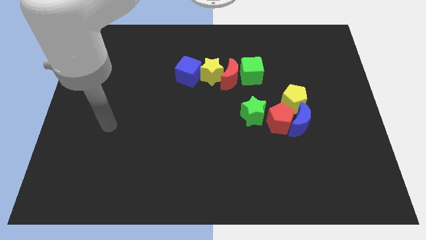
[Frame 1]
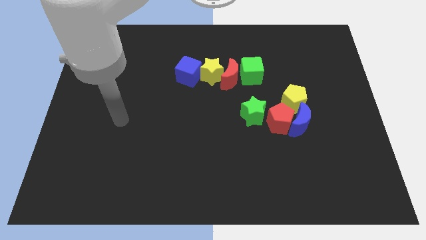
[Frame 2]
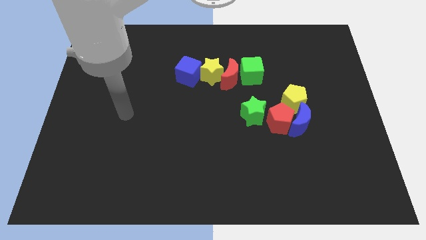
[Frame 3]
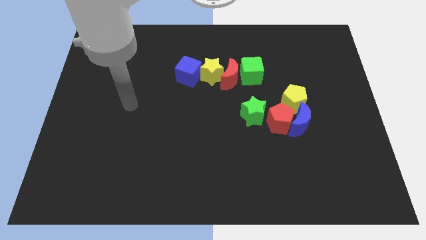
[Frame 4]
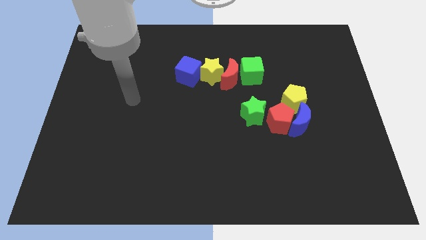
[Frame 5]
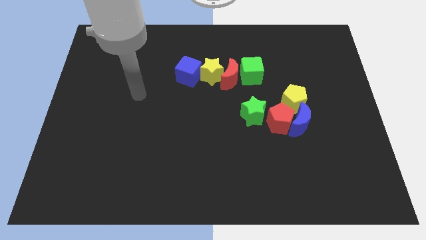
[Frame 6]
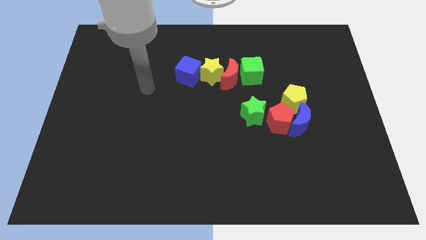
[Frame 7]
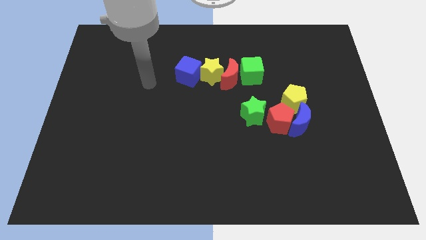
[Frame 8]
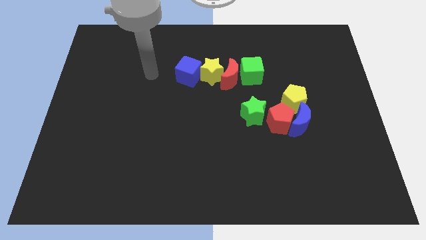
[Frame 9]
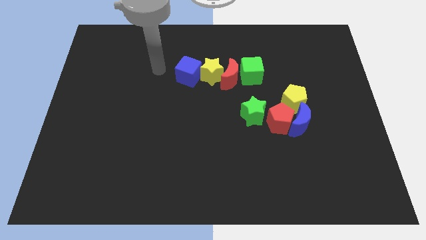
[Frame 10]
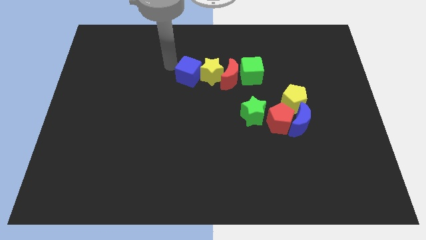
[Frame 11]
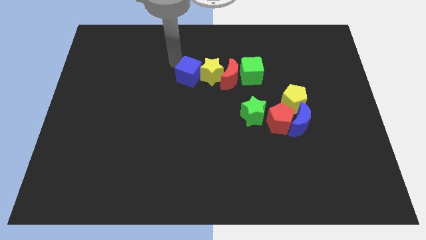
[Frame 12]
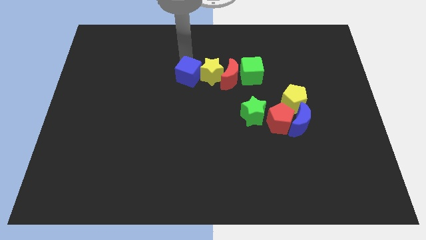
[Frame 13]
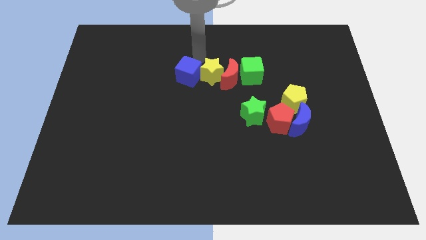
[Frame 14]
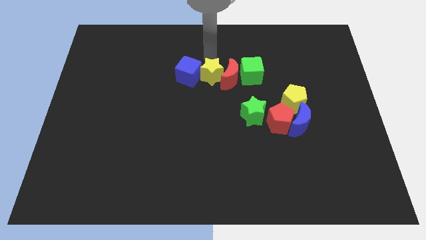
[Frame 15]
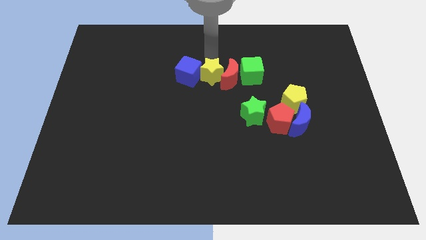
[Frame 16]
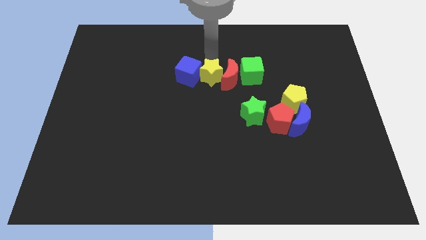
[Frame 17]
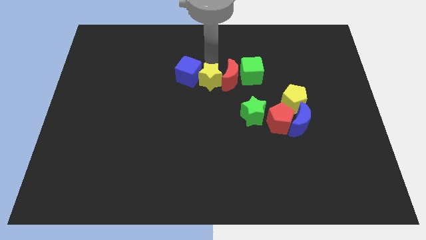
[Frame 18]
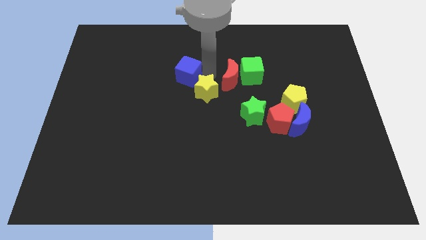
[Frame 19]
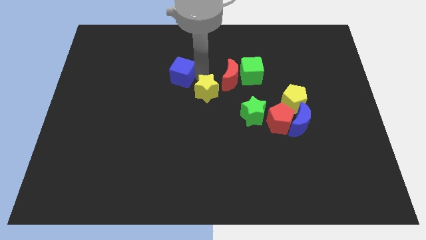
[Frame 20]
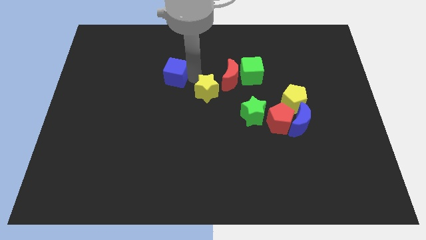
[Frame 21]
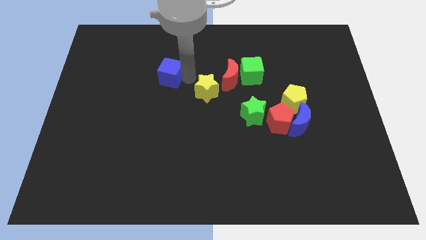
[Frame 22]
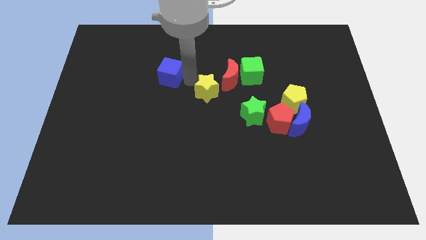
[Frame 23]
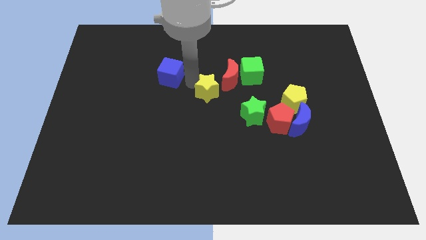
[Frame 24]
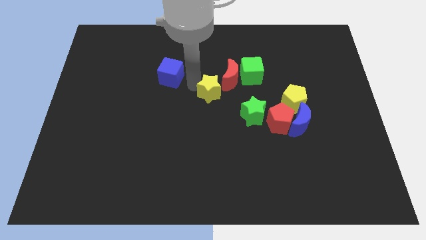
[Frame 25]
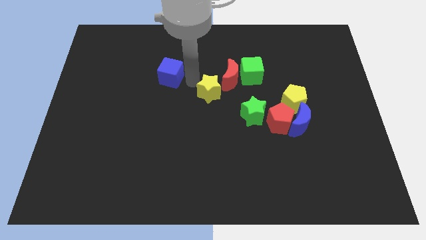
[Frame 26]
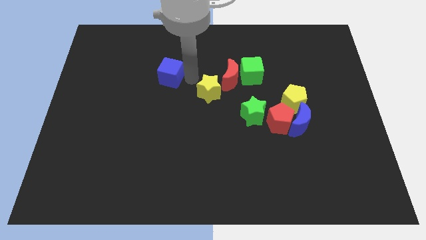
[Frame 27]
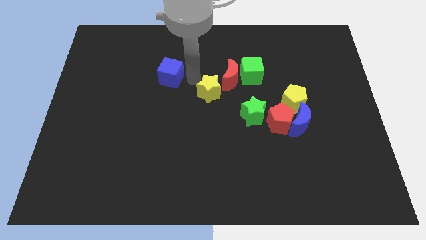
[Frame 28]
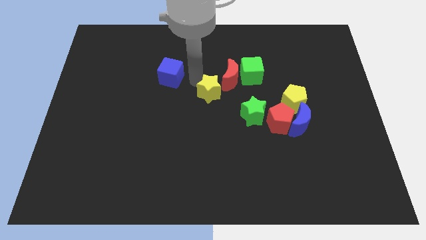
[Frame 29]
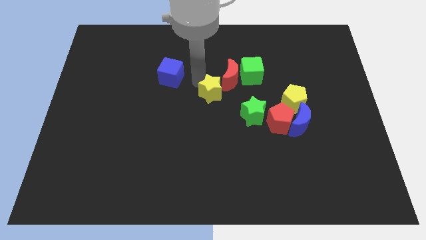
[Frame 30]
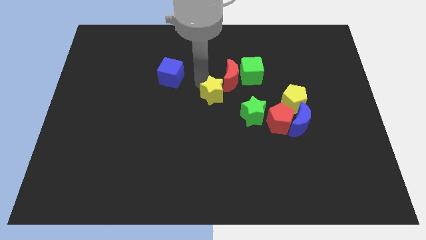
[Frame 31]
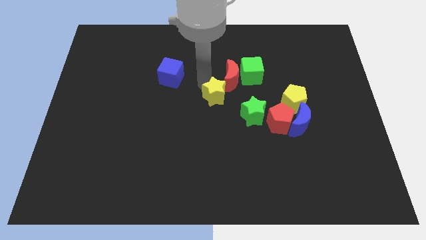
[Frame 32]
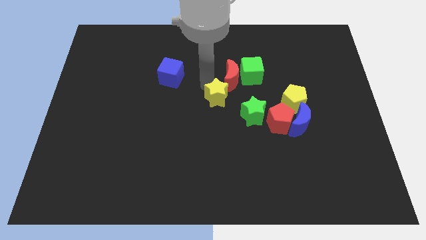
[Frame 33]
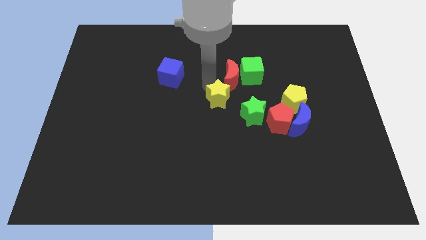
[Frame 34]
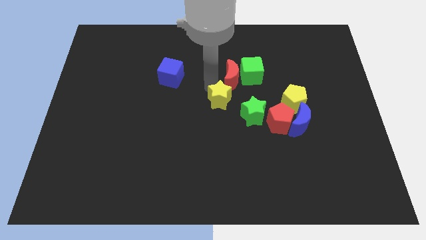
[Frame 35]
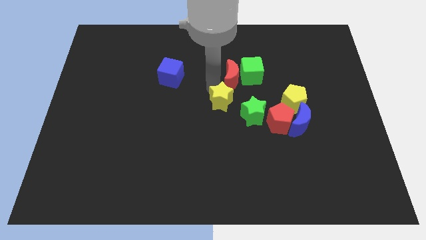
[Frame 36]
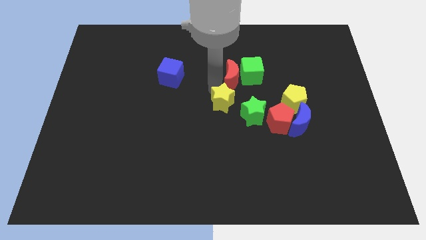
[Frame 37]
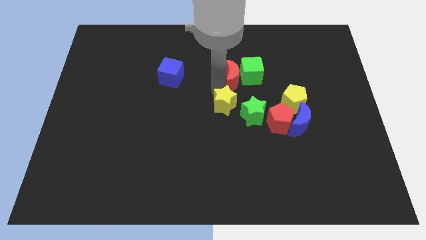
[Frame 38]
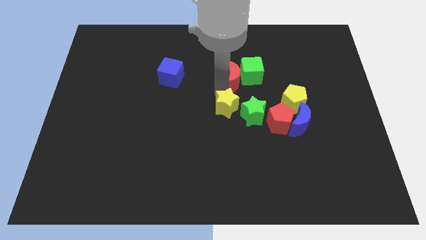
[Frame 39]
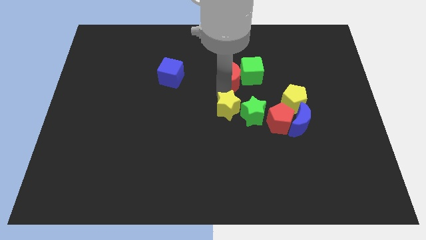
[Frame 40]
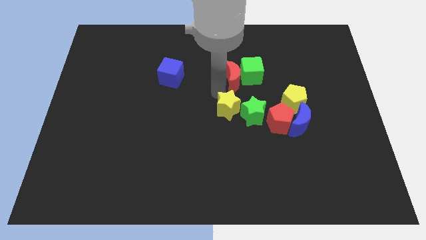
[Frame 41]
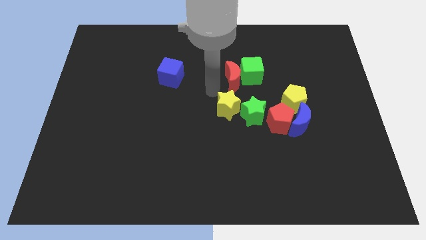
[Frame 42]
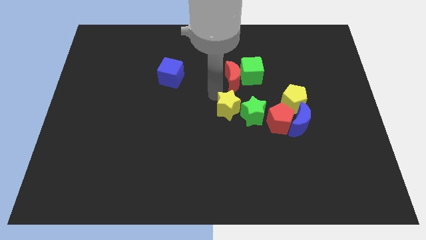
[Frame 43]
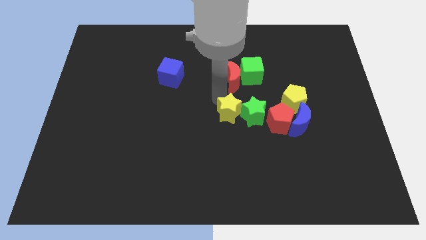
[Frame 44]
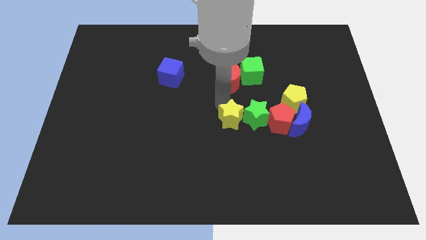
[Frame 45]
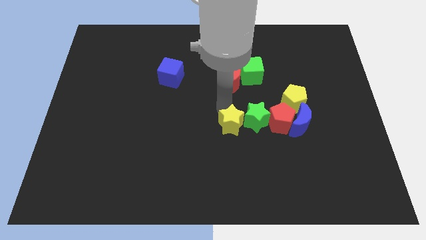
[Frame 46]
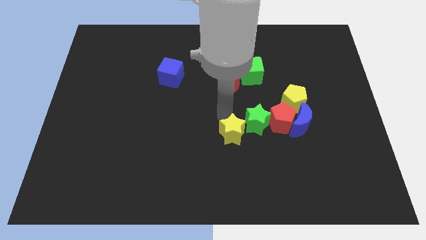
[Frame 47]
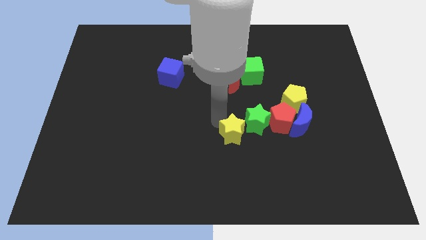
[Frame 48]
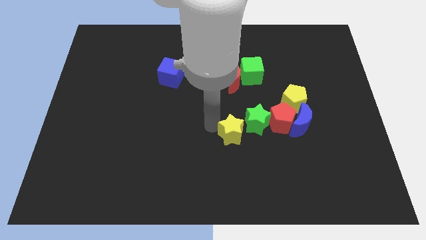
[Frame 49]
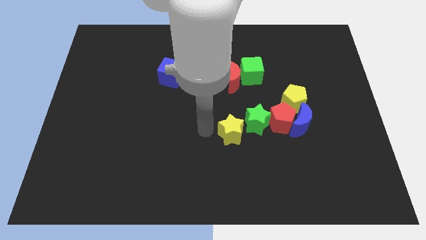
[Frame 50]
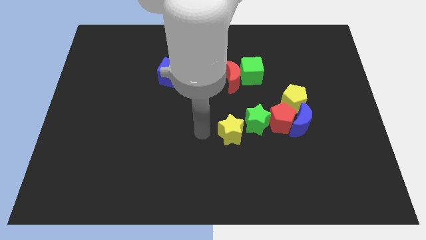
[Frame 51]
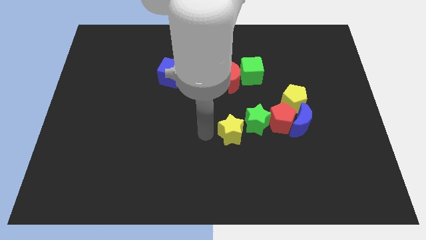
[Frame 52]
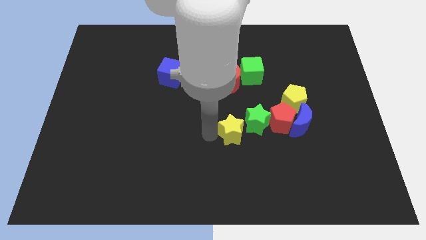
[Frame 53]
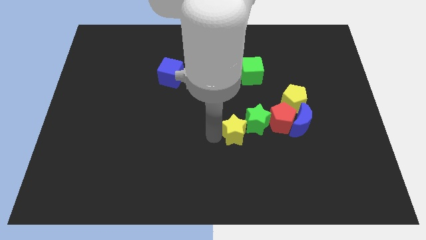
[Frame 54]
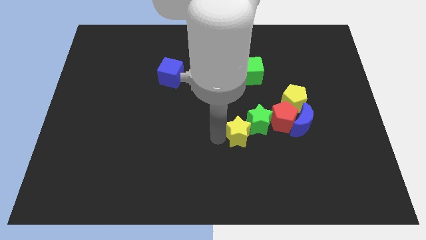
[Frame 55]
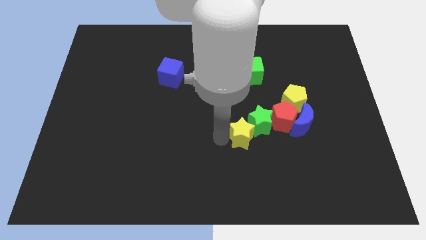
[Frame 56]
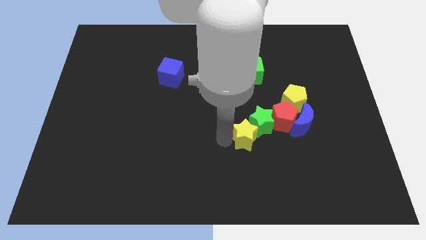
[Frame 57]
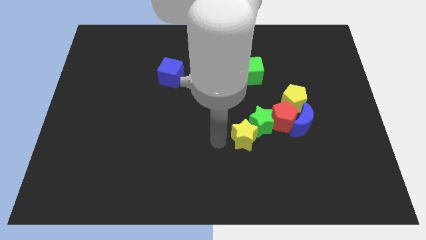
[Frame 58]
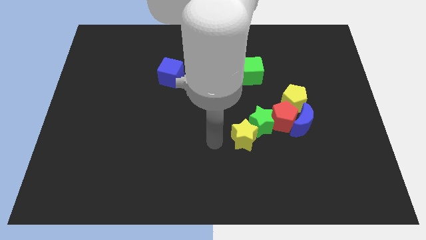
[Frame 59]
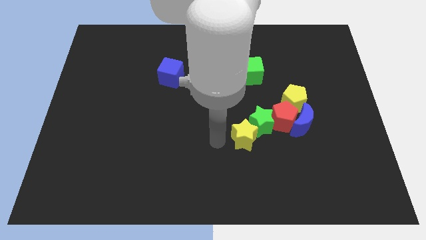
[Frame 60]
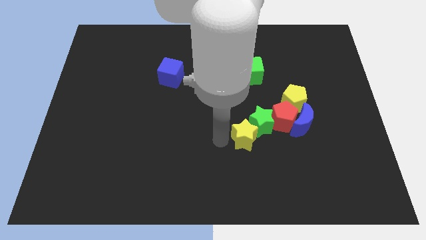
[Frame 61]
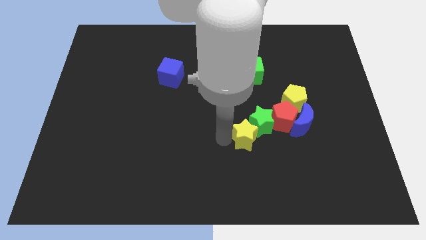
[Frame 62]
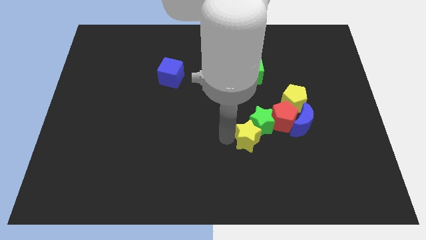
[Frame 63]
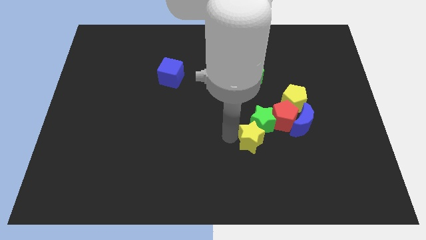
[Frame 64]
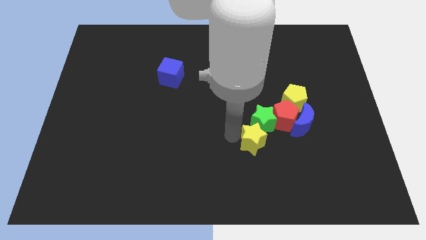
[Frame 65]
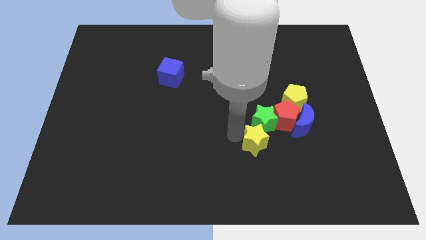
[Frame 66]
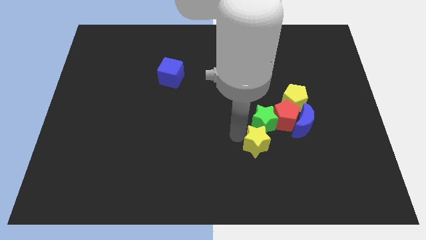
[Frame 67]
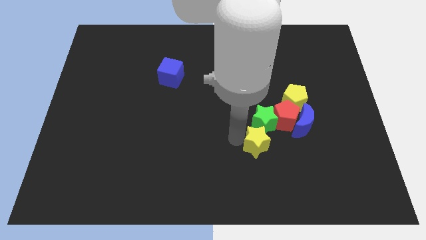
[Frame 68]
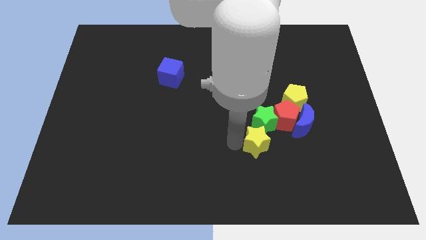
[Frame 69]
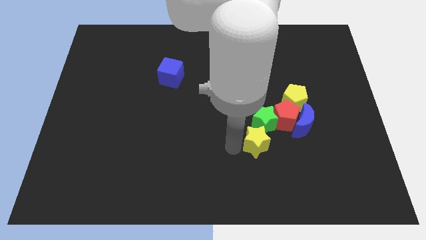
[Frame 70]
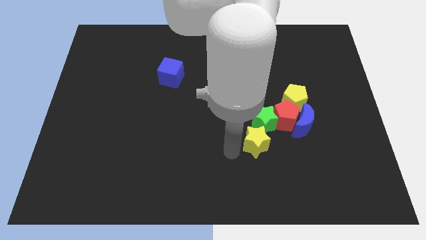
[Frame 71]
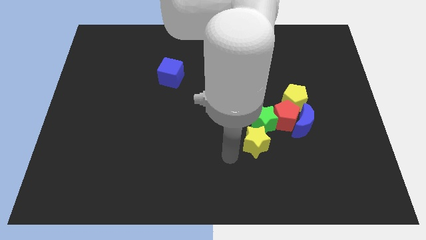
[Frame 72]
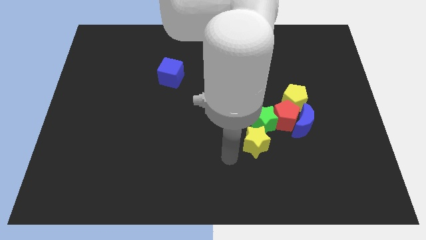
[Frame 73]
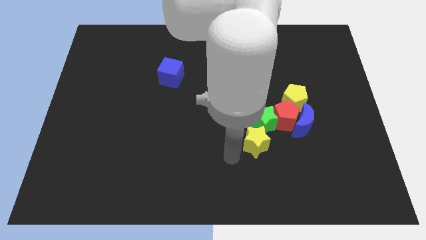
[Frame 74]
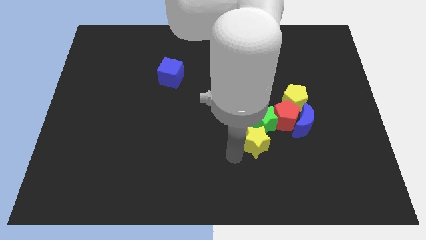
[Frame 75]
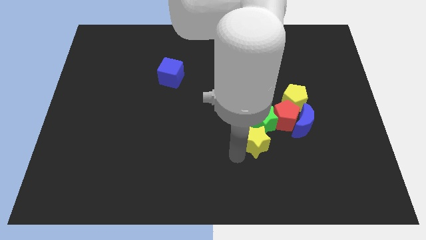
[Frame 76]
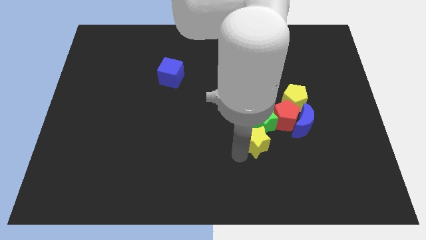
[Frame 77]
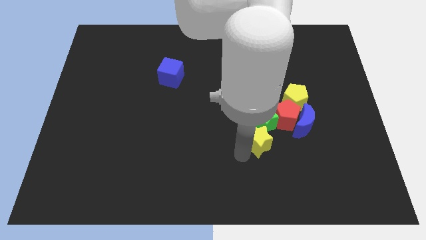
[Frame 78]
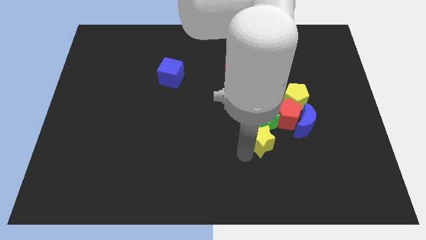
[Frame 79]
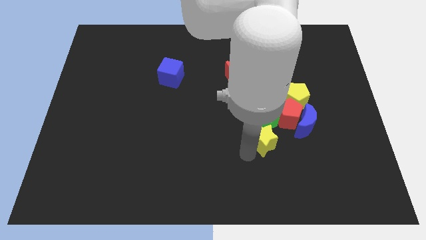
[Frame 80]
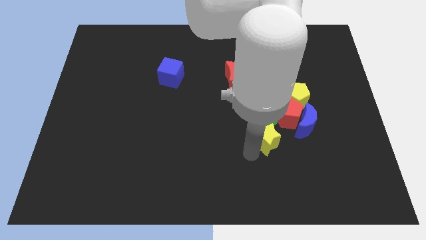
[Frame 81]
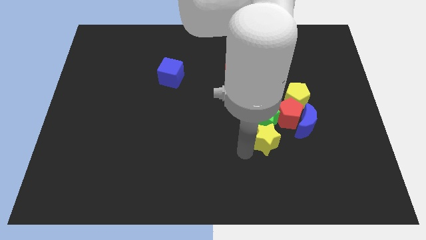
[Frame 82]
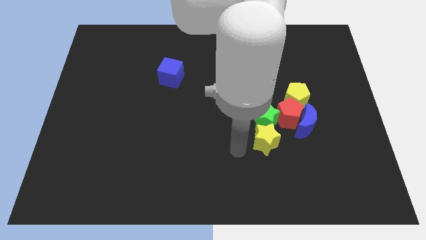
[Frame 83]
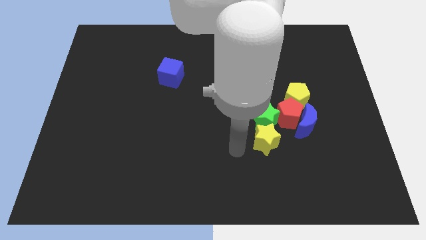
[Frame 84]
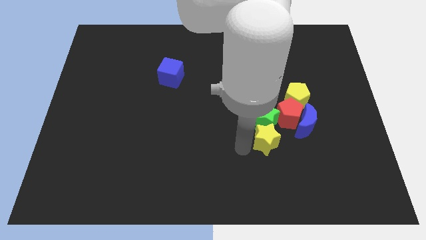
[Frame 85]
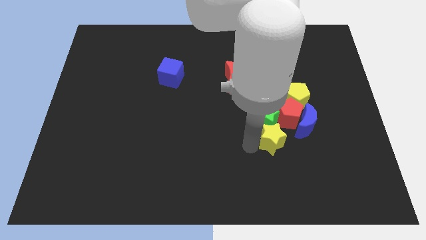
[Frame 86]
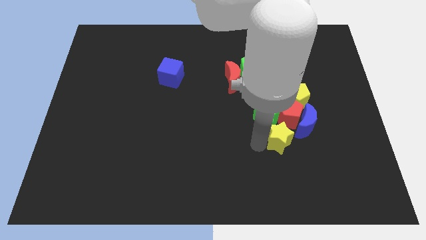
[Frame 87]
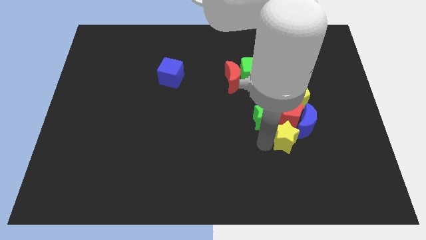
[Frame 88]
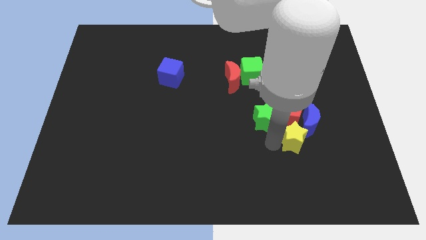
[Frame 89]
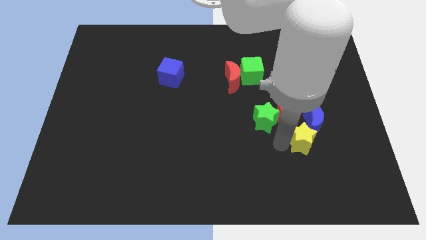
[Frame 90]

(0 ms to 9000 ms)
put the yellow star towards the blue moon
